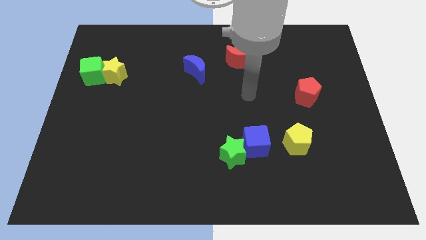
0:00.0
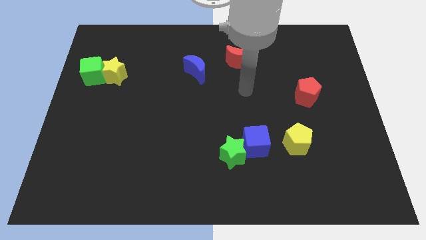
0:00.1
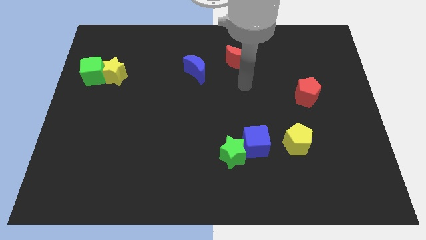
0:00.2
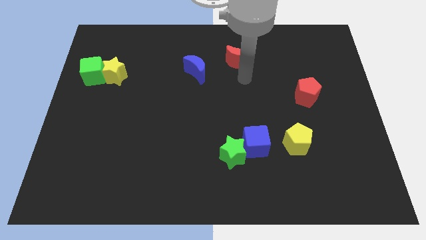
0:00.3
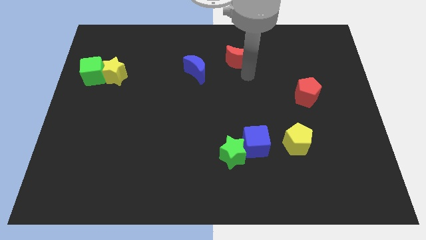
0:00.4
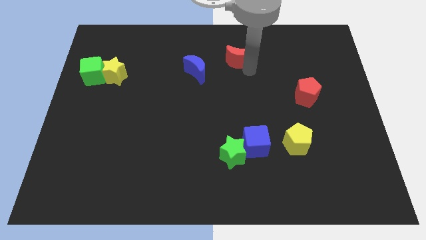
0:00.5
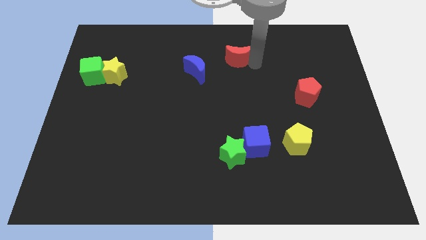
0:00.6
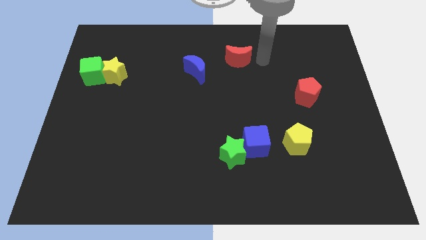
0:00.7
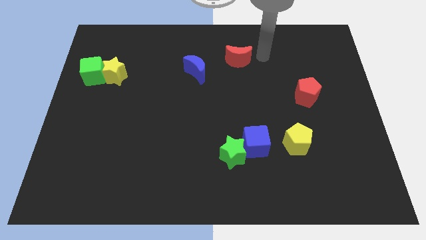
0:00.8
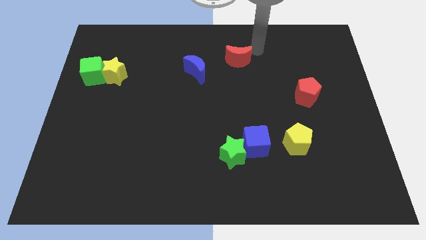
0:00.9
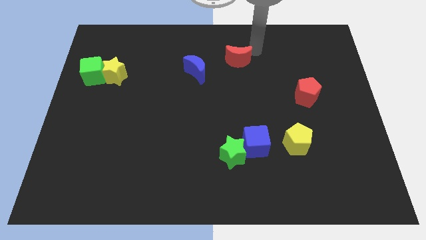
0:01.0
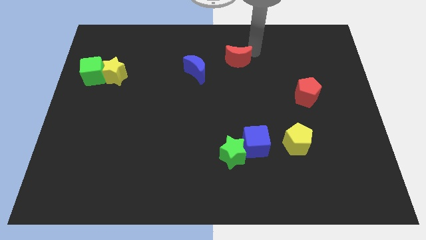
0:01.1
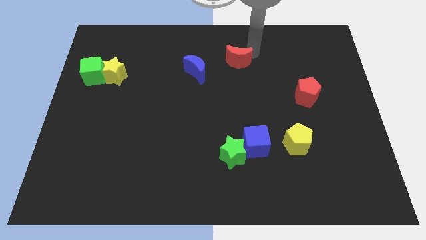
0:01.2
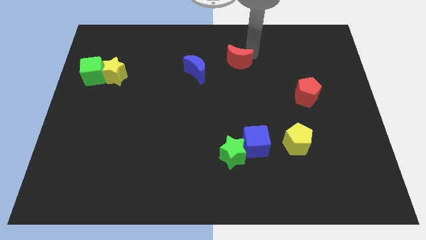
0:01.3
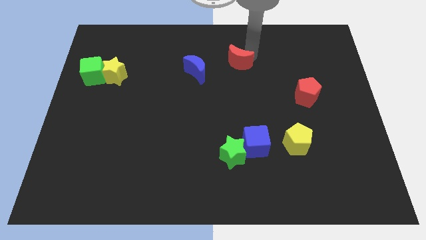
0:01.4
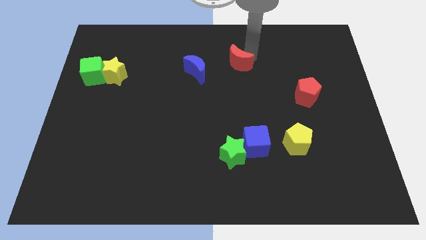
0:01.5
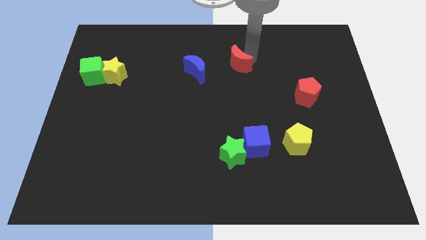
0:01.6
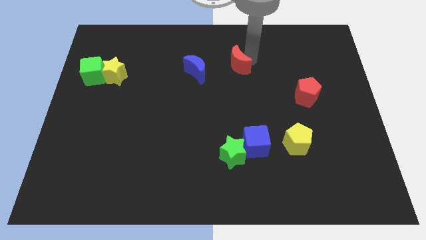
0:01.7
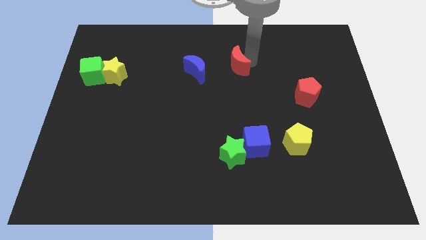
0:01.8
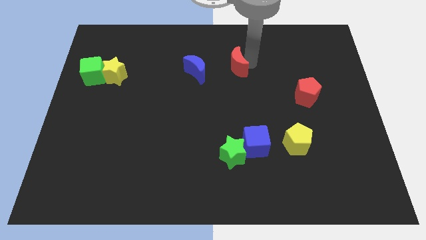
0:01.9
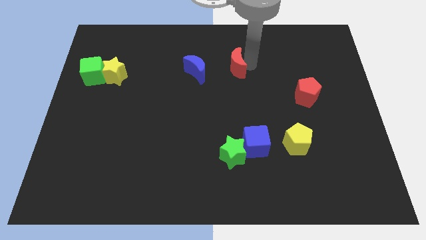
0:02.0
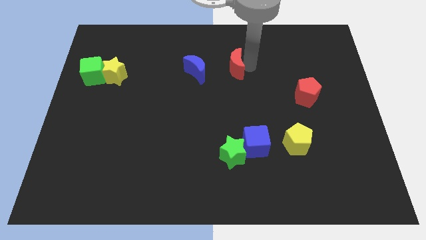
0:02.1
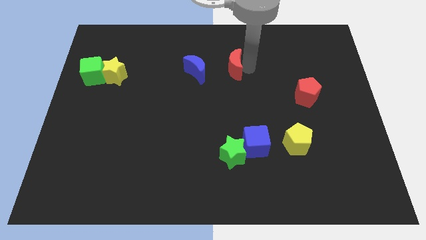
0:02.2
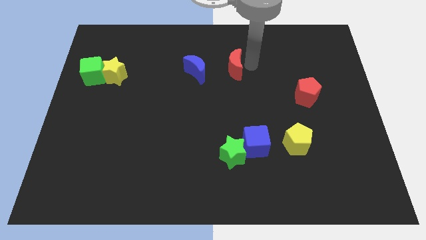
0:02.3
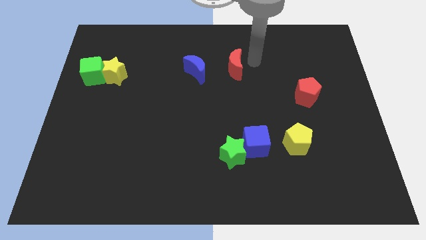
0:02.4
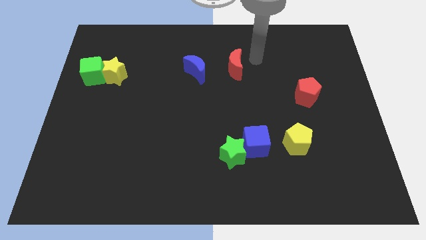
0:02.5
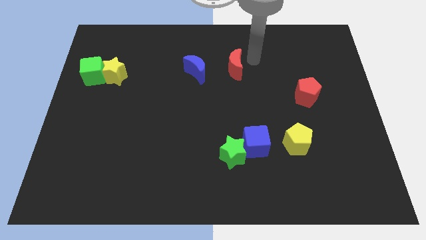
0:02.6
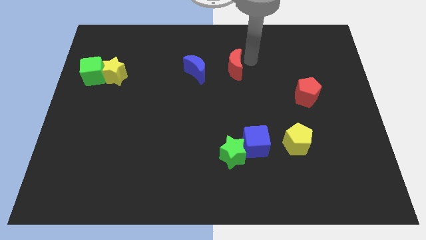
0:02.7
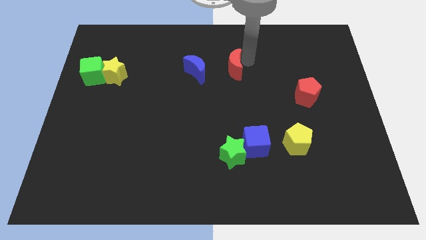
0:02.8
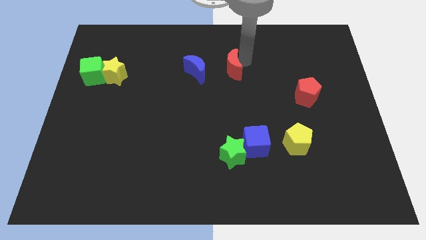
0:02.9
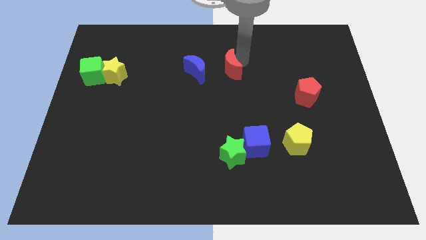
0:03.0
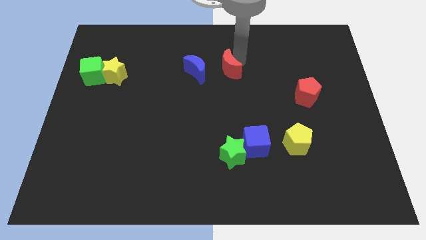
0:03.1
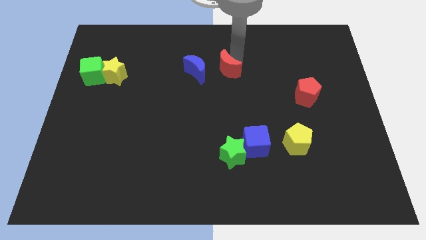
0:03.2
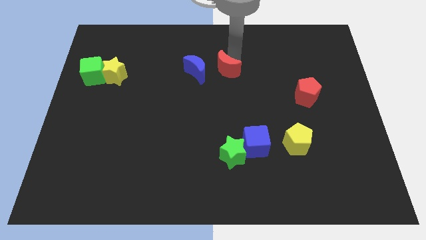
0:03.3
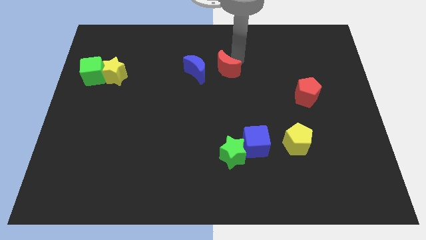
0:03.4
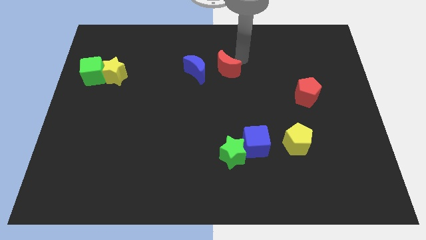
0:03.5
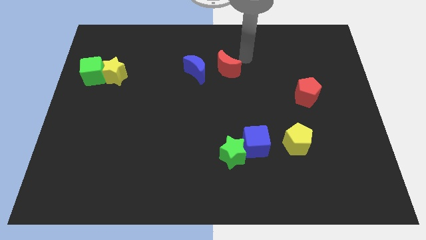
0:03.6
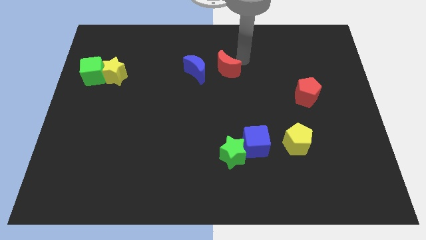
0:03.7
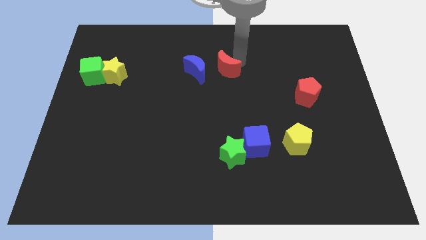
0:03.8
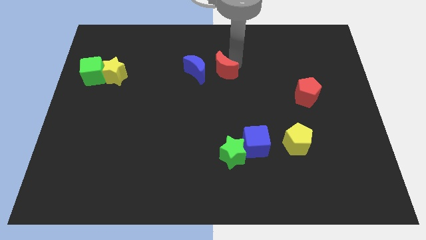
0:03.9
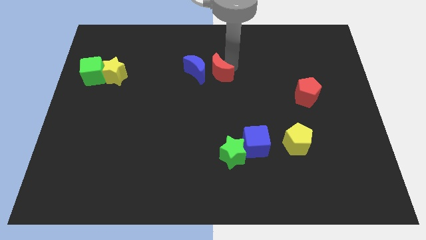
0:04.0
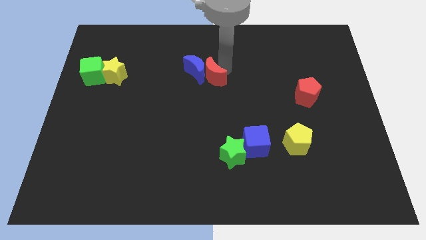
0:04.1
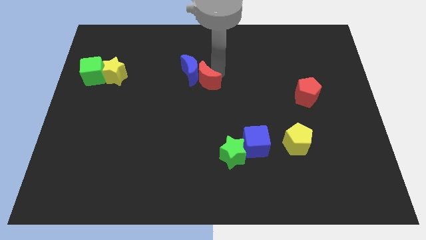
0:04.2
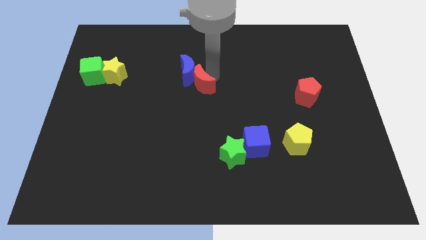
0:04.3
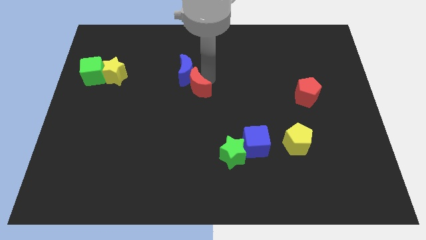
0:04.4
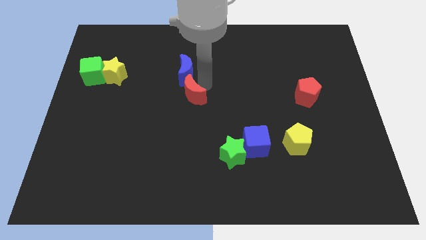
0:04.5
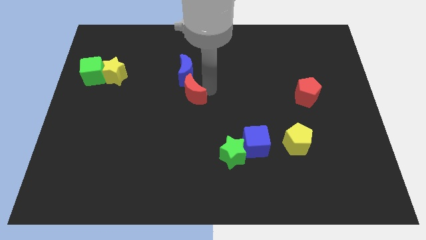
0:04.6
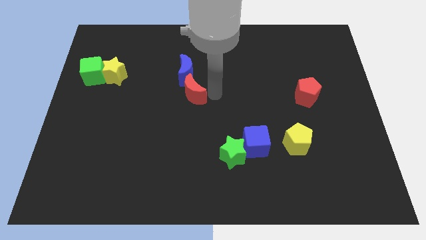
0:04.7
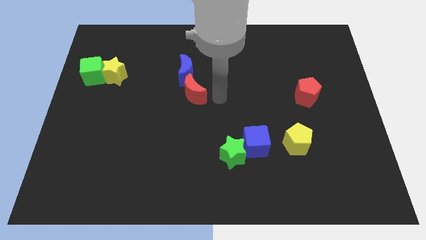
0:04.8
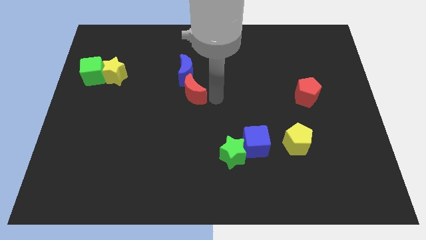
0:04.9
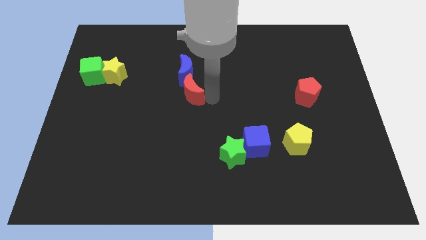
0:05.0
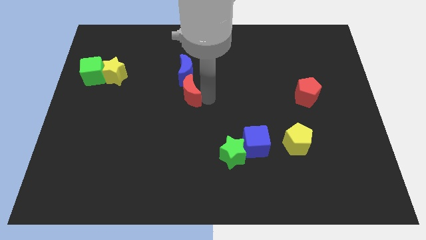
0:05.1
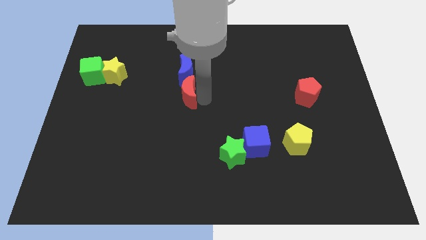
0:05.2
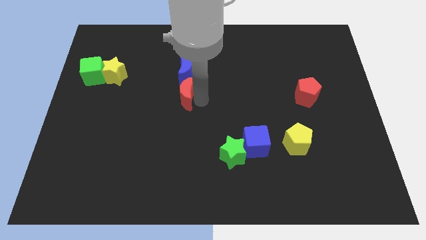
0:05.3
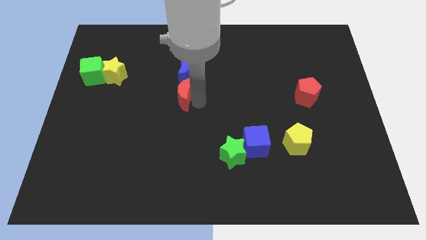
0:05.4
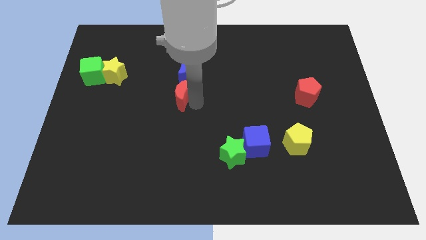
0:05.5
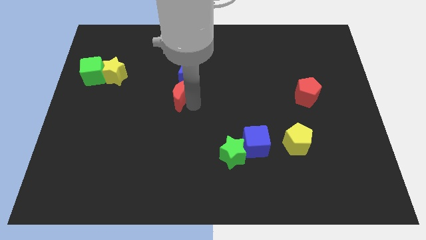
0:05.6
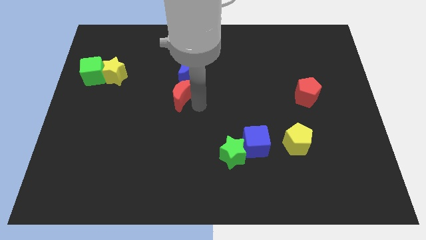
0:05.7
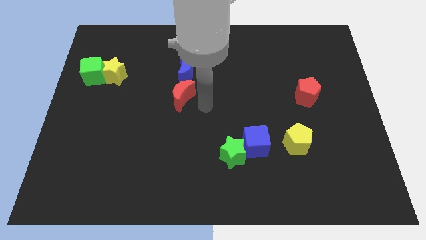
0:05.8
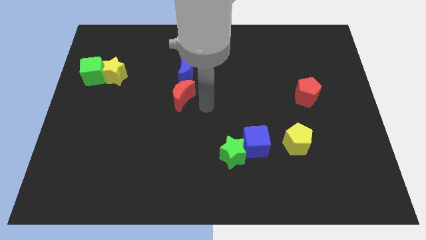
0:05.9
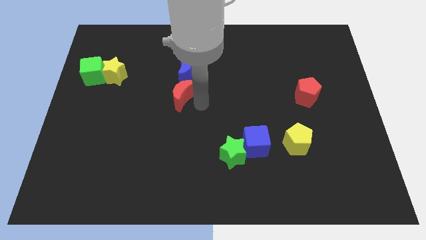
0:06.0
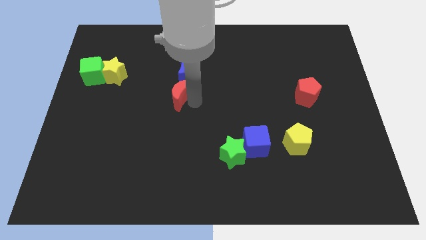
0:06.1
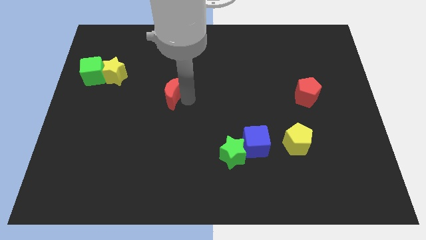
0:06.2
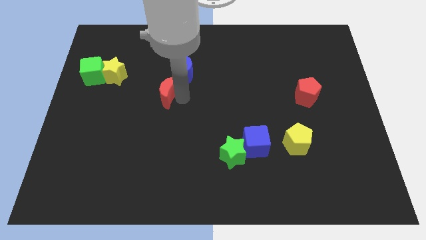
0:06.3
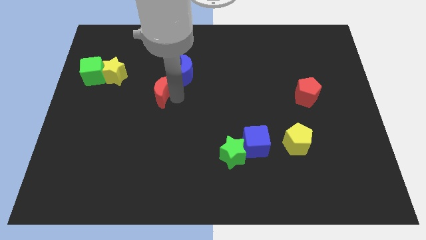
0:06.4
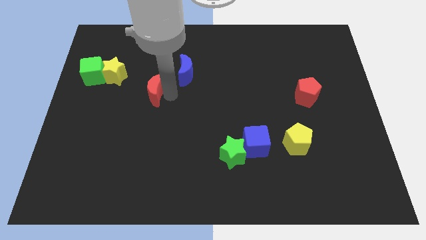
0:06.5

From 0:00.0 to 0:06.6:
put the red moon to the bottom right of the yellow star
